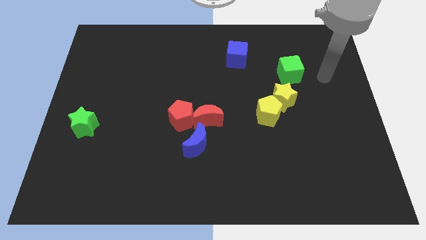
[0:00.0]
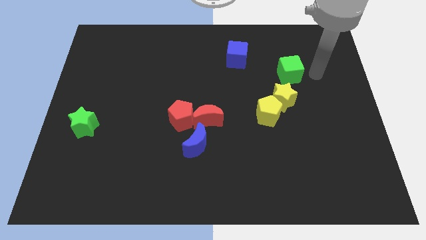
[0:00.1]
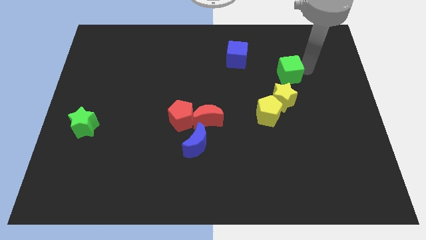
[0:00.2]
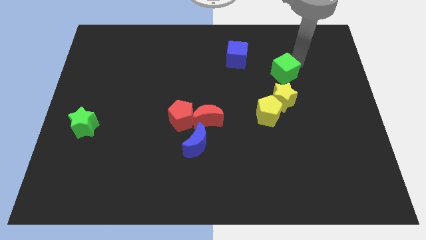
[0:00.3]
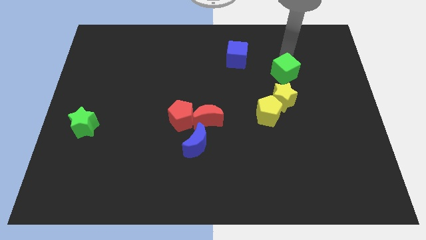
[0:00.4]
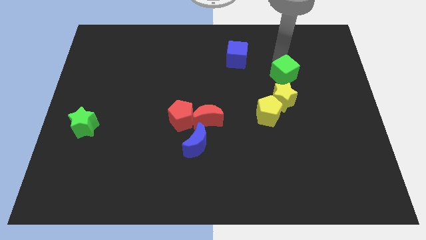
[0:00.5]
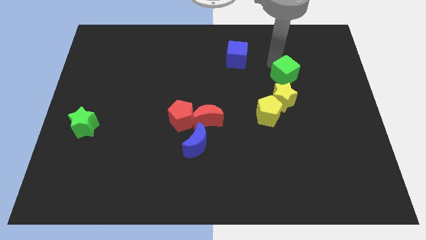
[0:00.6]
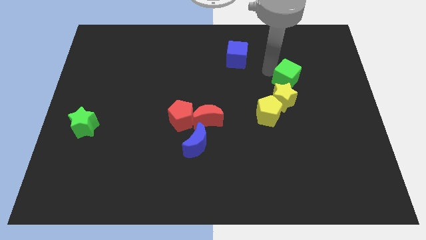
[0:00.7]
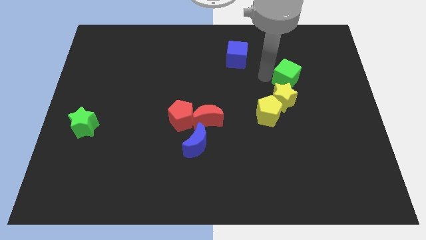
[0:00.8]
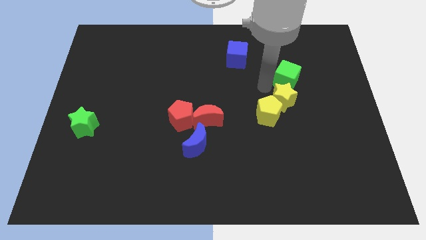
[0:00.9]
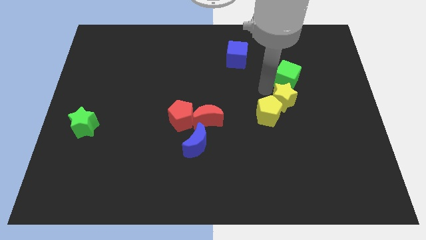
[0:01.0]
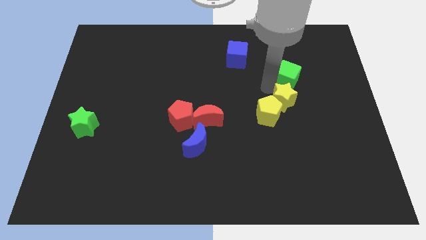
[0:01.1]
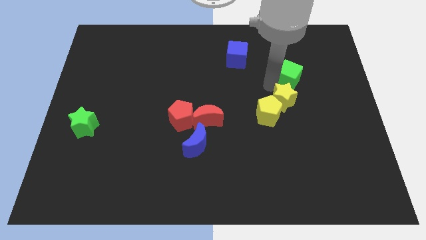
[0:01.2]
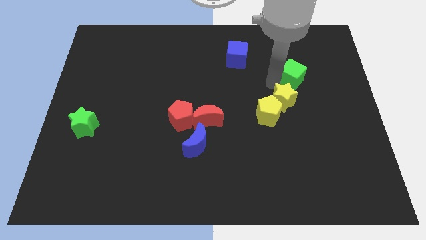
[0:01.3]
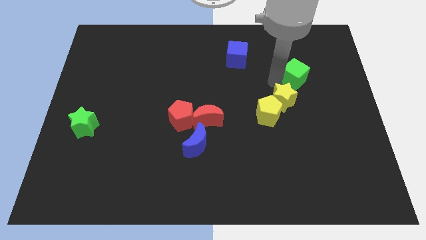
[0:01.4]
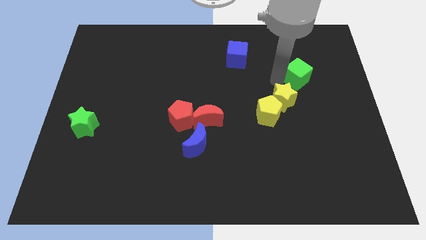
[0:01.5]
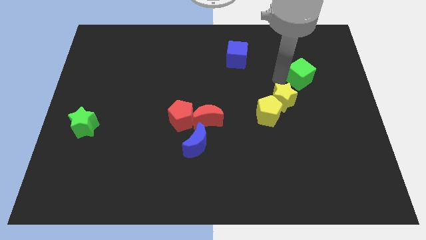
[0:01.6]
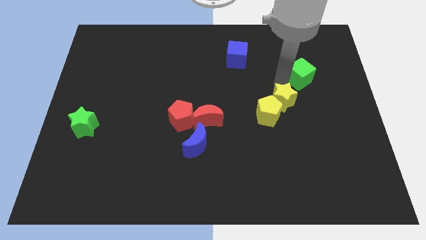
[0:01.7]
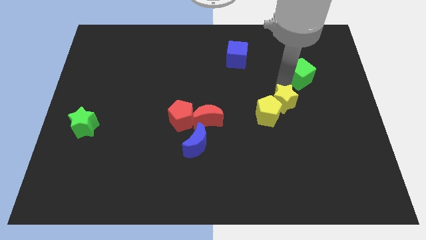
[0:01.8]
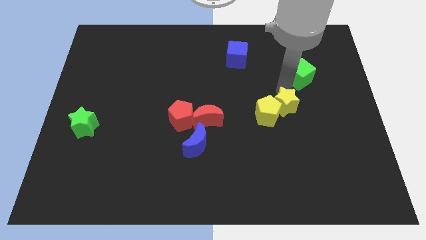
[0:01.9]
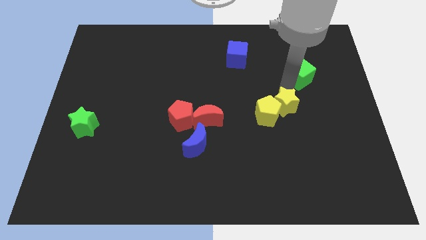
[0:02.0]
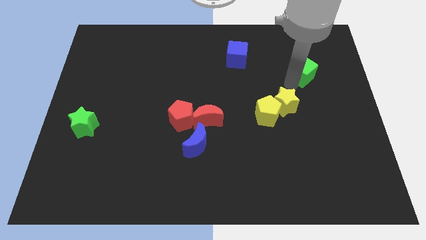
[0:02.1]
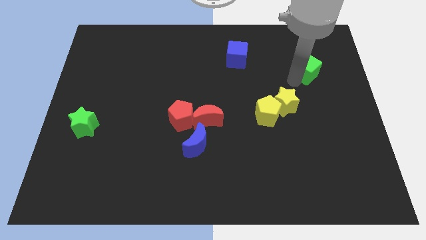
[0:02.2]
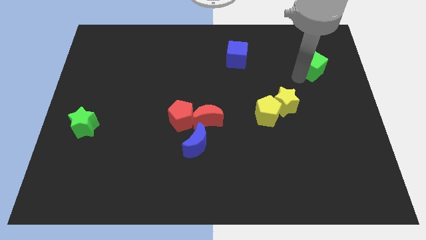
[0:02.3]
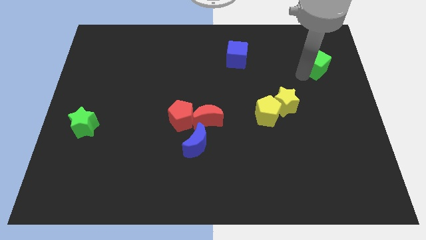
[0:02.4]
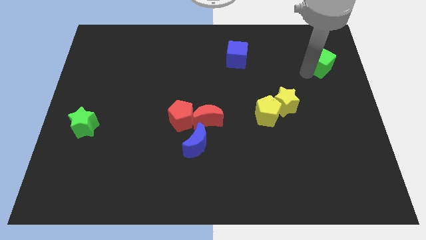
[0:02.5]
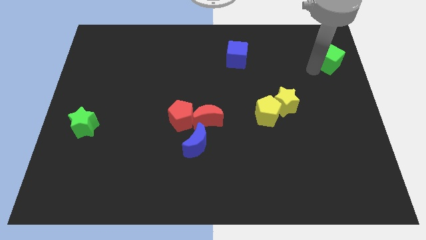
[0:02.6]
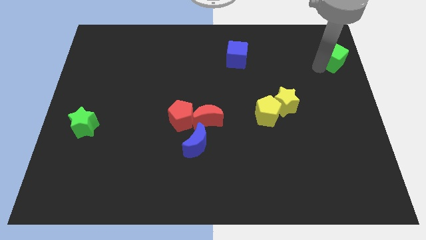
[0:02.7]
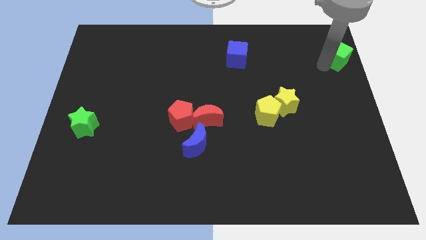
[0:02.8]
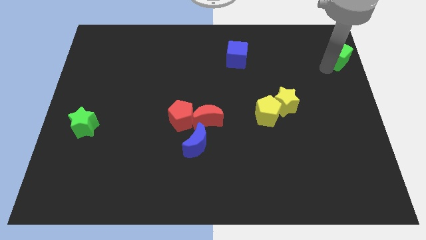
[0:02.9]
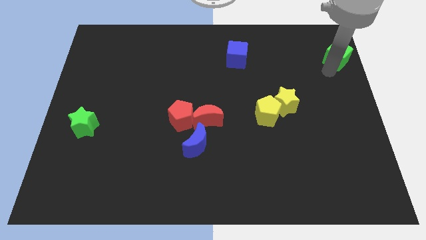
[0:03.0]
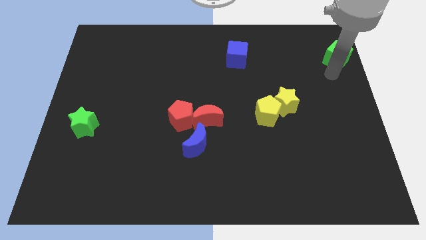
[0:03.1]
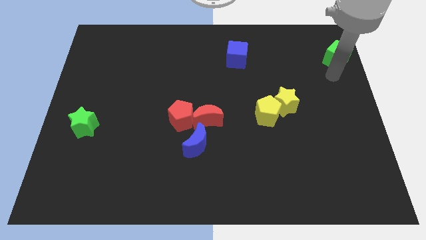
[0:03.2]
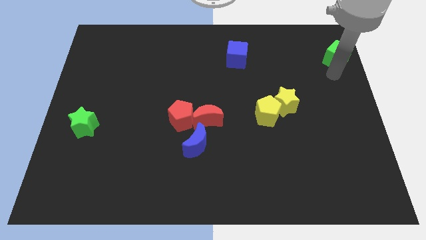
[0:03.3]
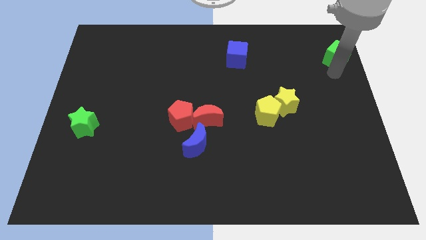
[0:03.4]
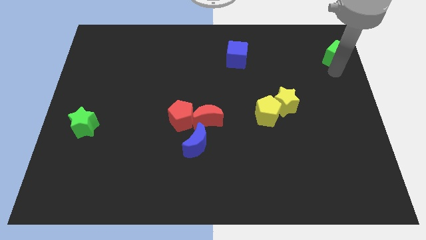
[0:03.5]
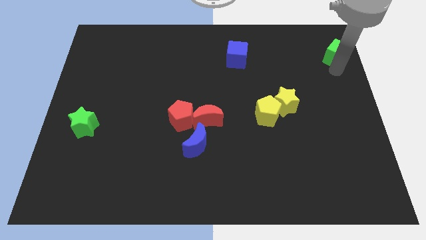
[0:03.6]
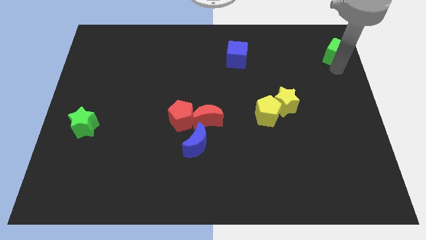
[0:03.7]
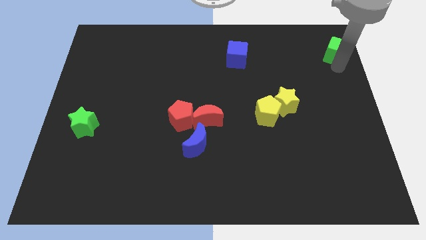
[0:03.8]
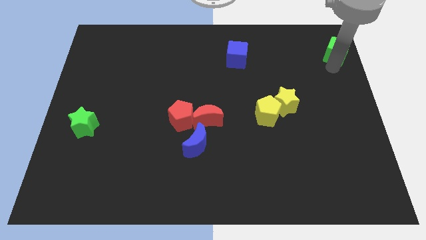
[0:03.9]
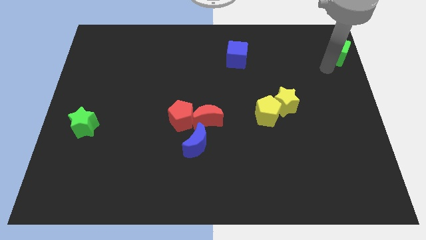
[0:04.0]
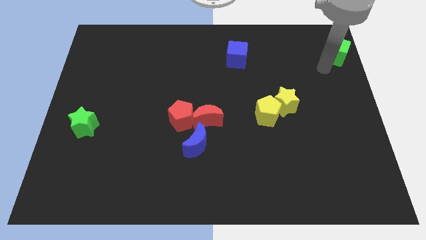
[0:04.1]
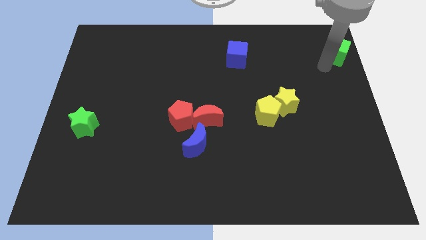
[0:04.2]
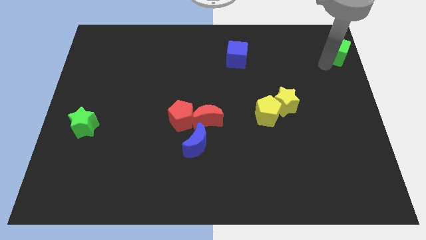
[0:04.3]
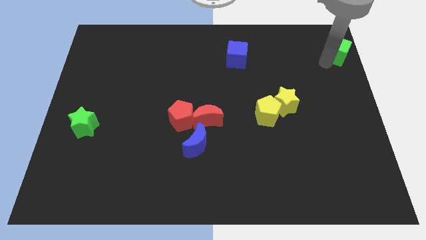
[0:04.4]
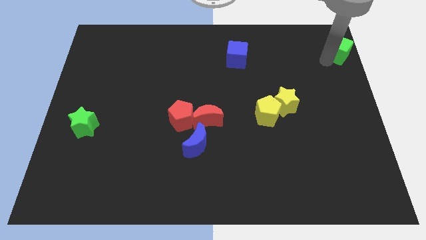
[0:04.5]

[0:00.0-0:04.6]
put the green cube to the top right corner

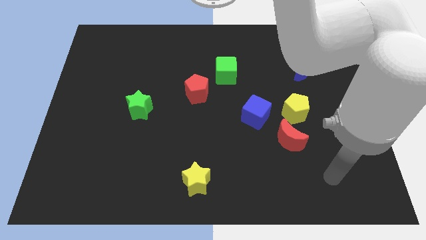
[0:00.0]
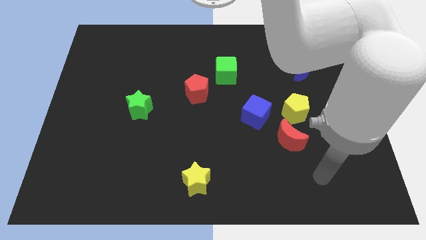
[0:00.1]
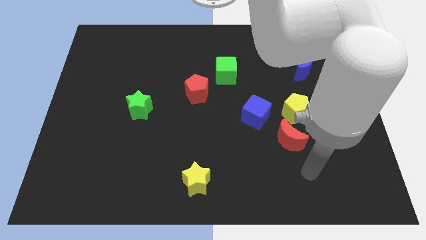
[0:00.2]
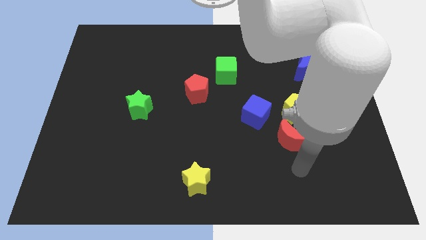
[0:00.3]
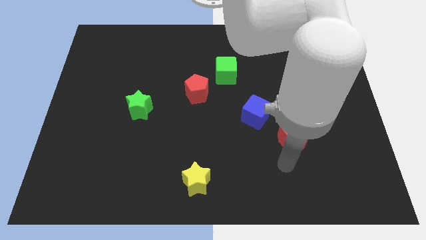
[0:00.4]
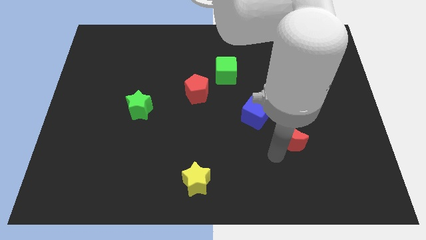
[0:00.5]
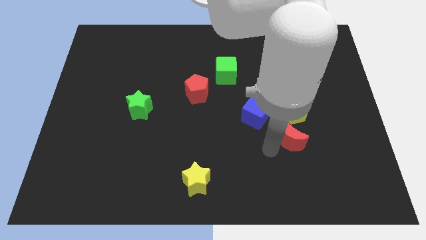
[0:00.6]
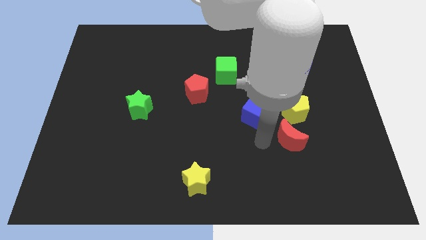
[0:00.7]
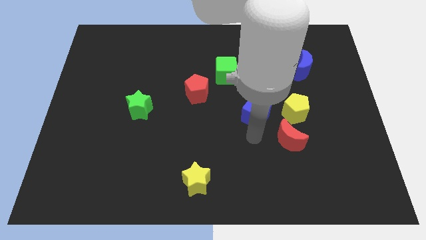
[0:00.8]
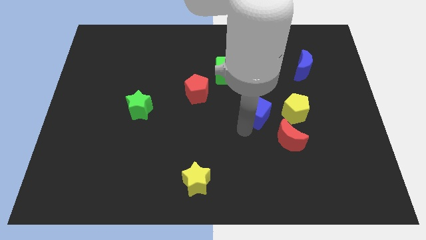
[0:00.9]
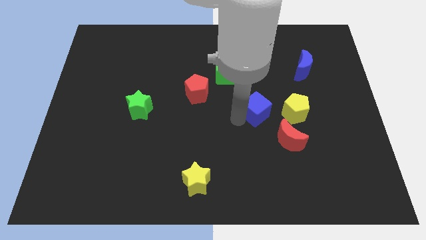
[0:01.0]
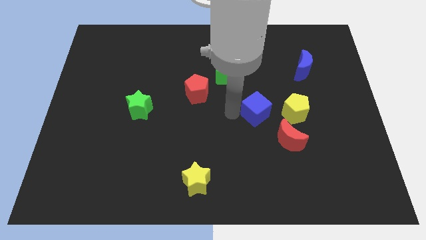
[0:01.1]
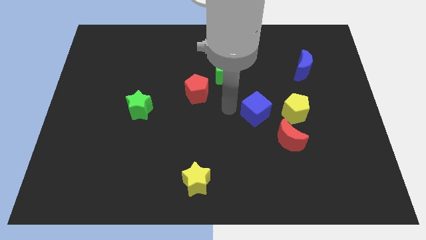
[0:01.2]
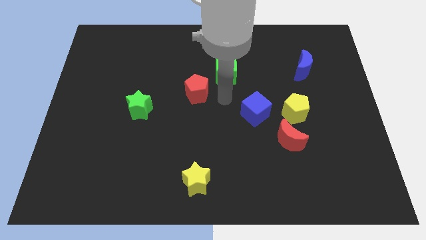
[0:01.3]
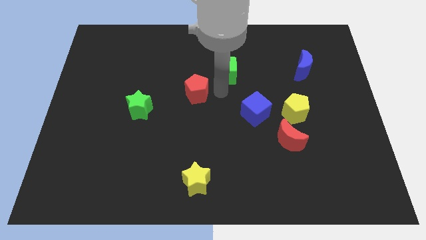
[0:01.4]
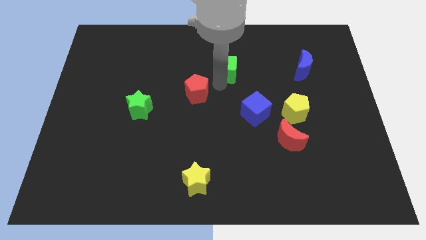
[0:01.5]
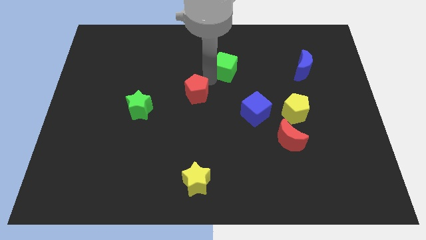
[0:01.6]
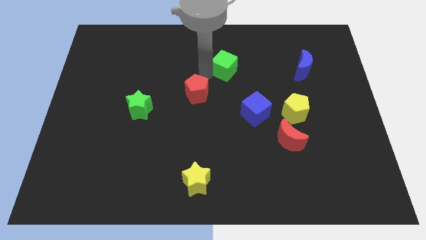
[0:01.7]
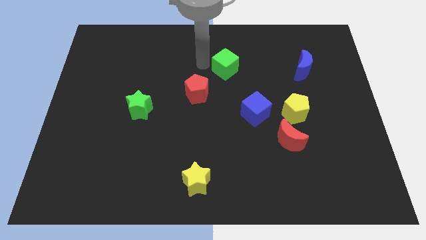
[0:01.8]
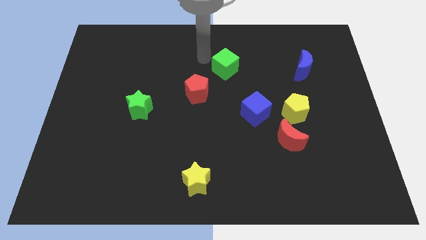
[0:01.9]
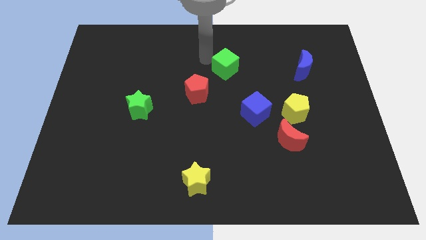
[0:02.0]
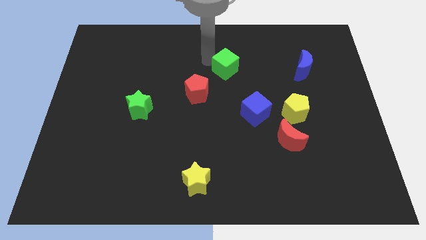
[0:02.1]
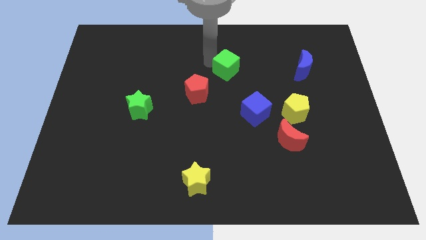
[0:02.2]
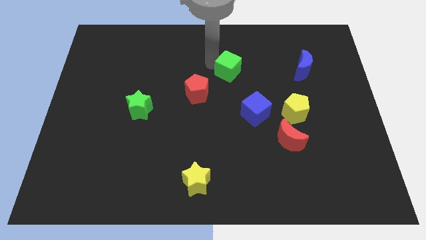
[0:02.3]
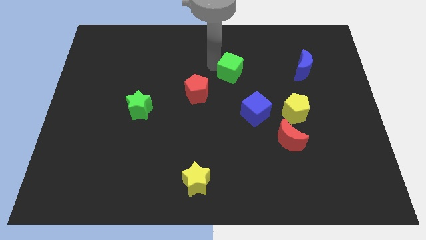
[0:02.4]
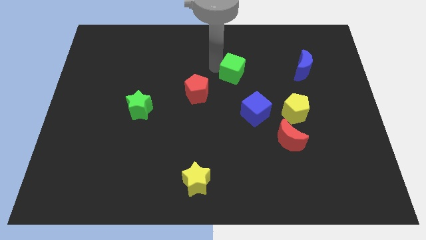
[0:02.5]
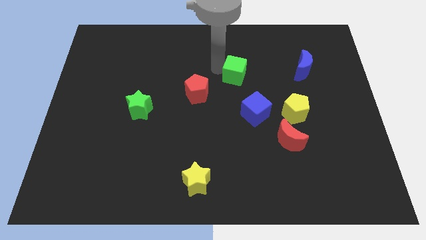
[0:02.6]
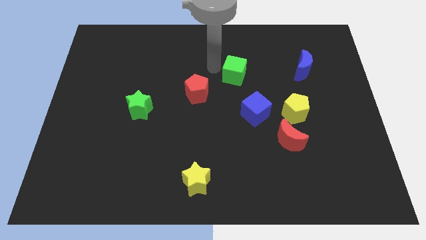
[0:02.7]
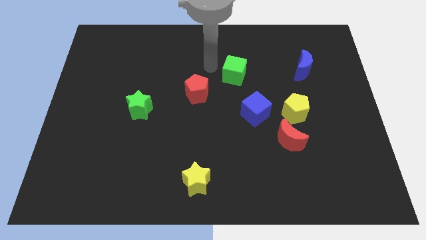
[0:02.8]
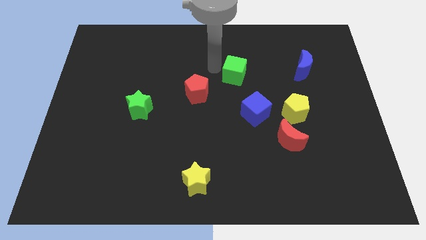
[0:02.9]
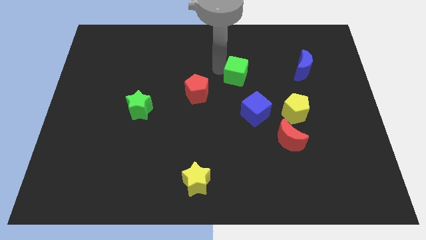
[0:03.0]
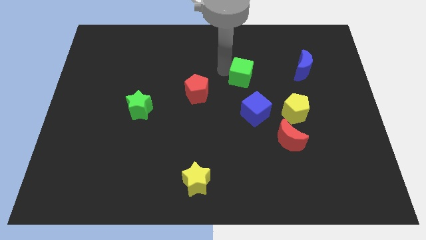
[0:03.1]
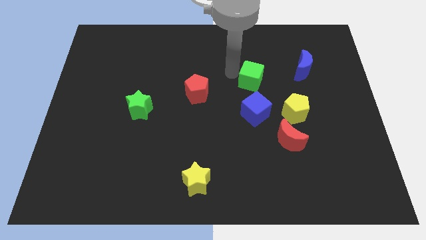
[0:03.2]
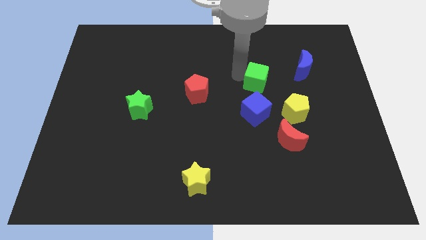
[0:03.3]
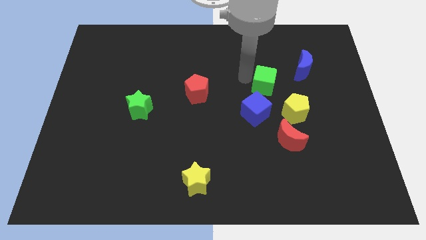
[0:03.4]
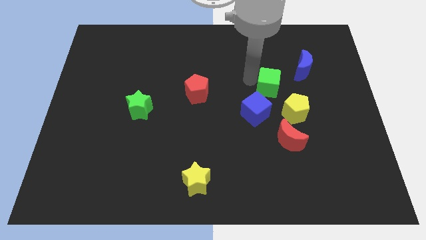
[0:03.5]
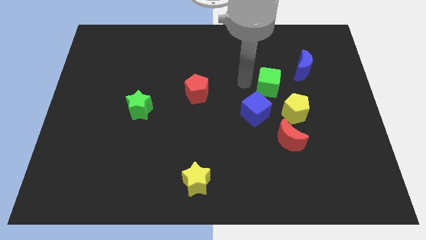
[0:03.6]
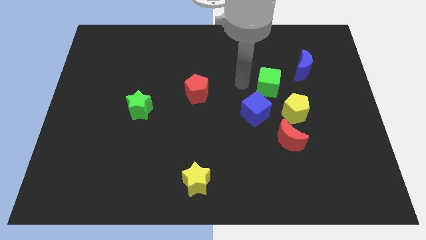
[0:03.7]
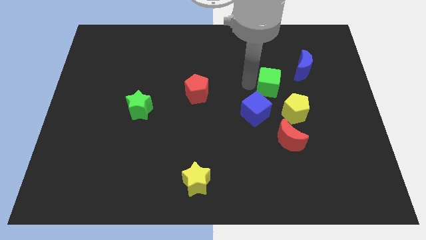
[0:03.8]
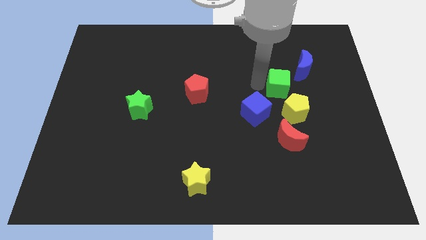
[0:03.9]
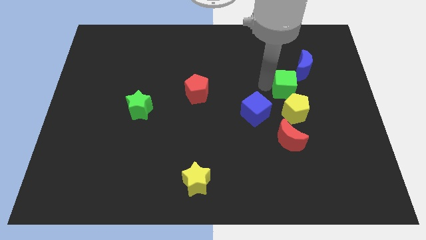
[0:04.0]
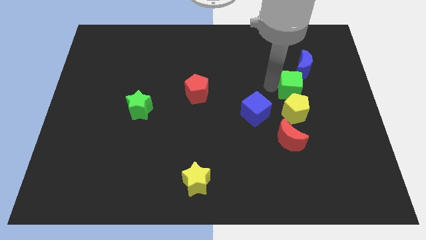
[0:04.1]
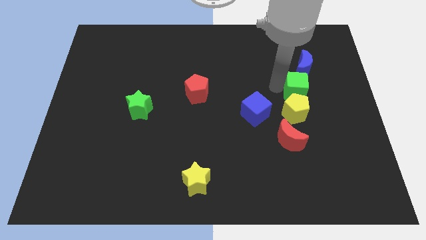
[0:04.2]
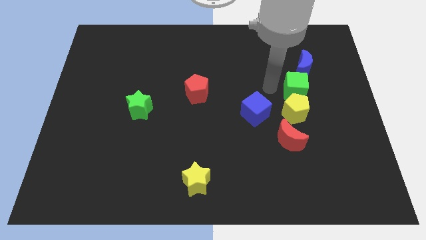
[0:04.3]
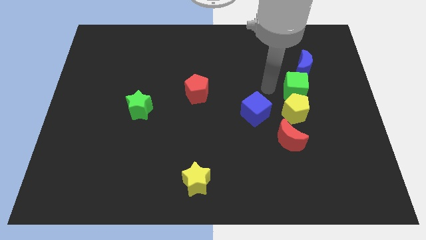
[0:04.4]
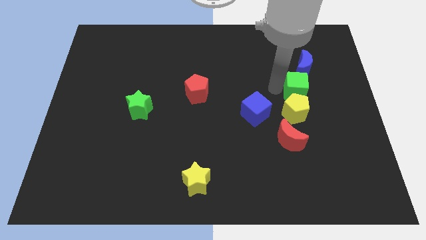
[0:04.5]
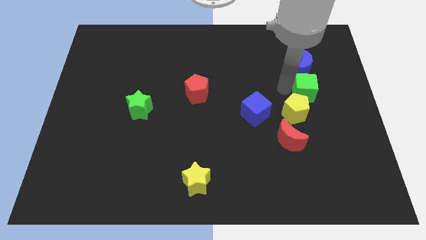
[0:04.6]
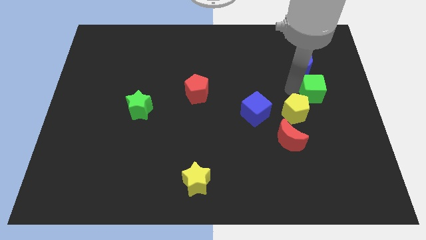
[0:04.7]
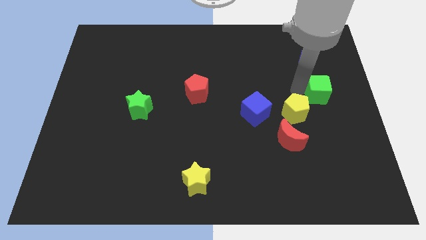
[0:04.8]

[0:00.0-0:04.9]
push the green cube to the right side of the board
